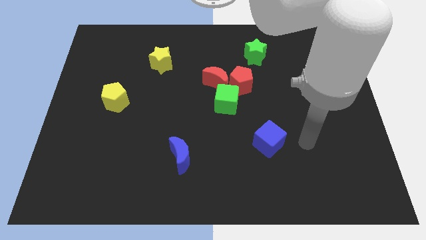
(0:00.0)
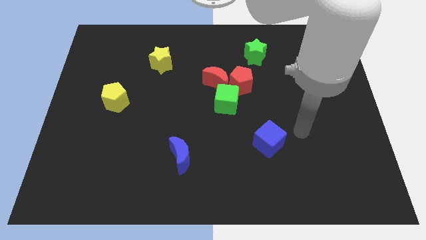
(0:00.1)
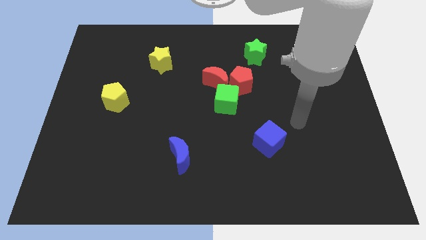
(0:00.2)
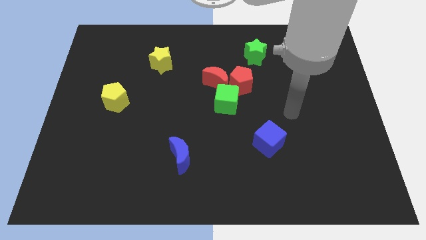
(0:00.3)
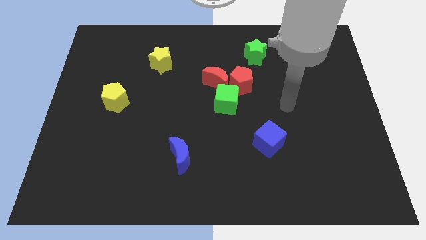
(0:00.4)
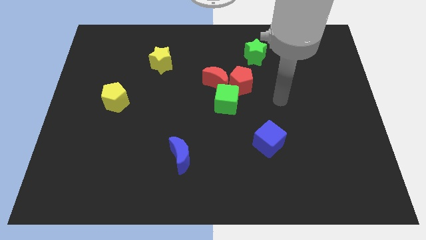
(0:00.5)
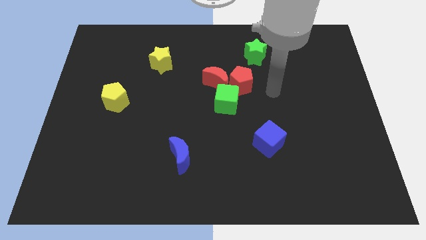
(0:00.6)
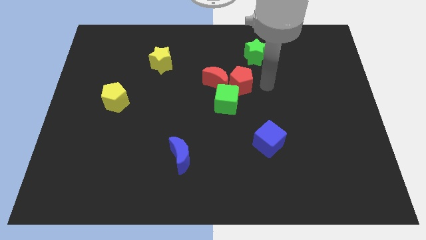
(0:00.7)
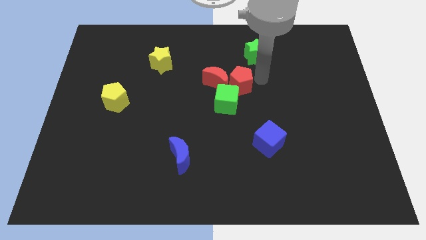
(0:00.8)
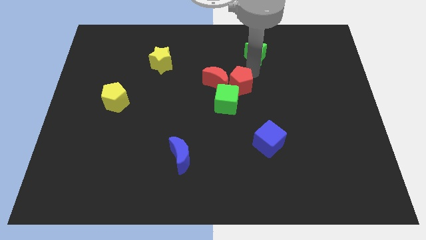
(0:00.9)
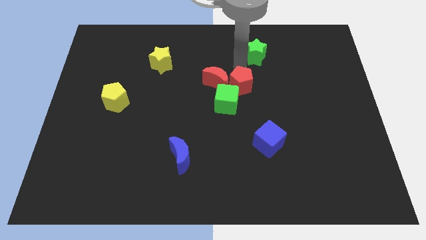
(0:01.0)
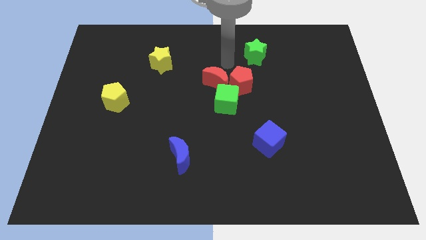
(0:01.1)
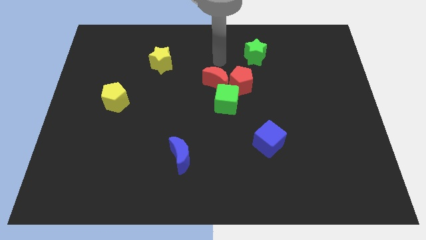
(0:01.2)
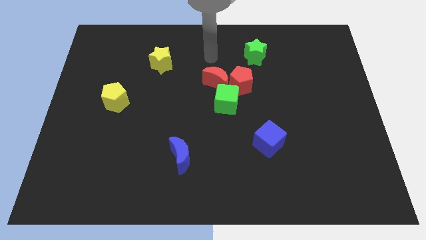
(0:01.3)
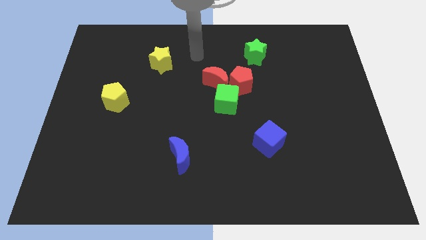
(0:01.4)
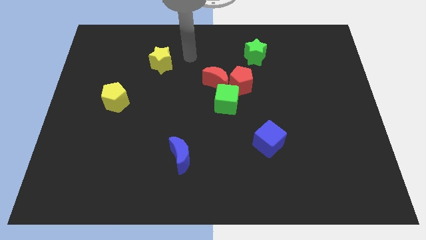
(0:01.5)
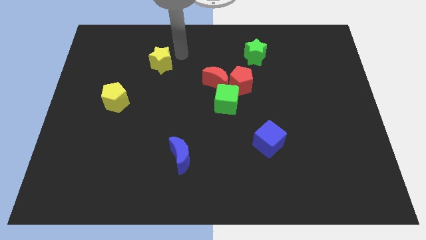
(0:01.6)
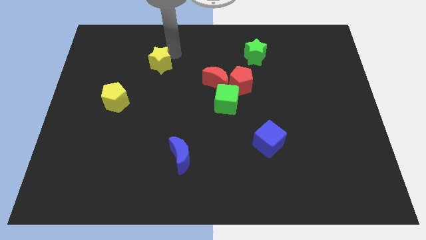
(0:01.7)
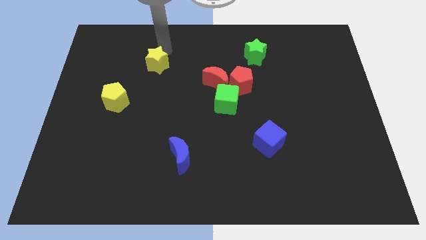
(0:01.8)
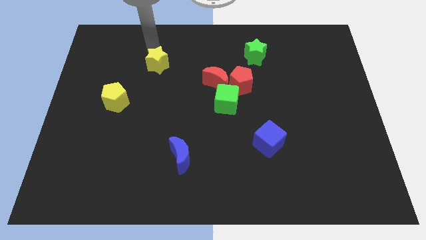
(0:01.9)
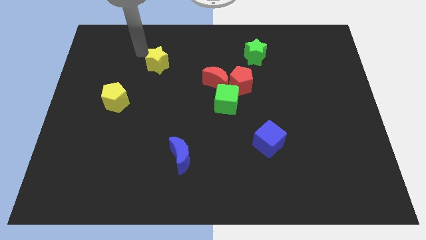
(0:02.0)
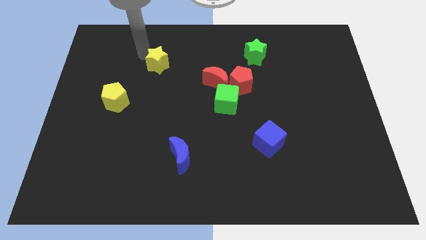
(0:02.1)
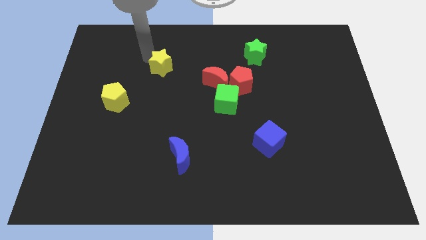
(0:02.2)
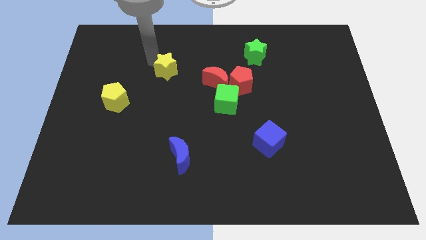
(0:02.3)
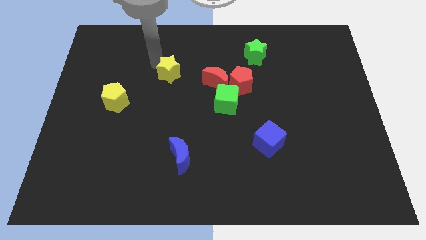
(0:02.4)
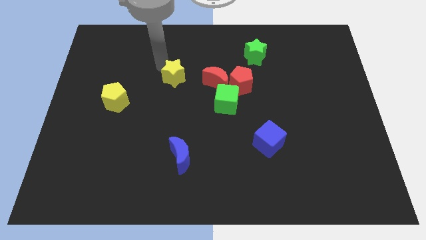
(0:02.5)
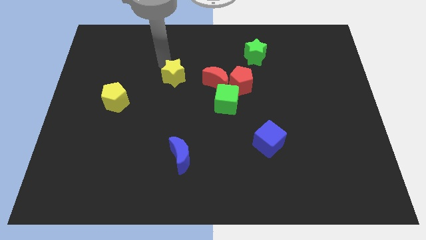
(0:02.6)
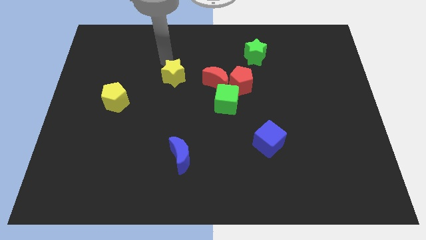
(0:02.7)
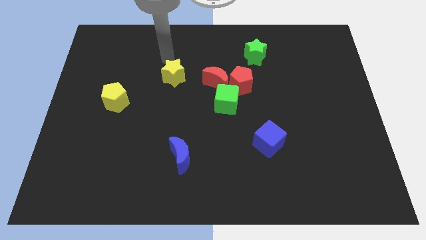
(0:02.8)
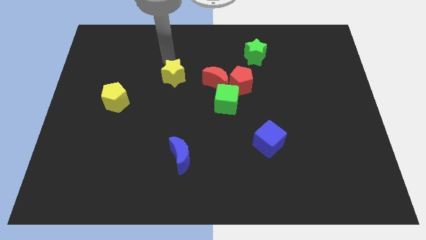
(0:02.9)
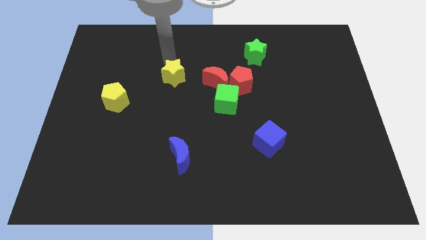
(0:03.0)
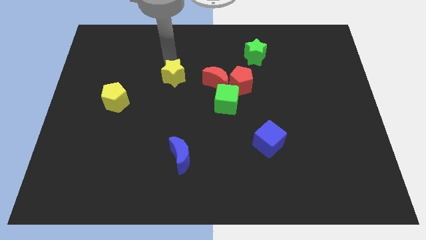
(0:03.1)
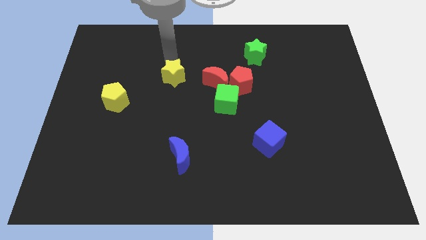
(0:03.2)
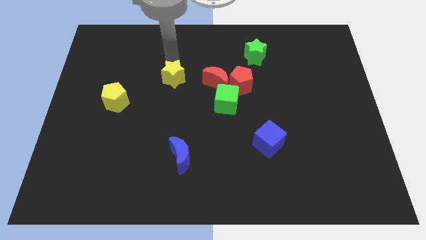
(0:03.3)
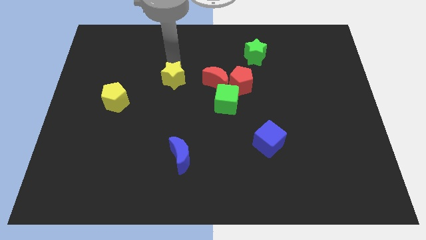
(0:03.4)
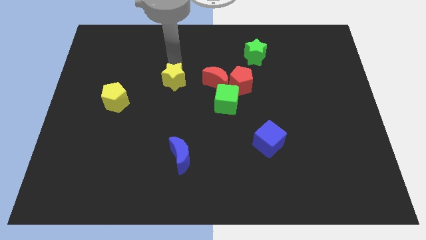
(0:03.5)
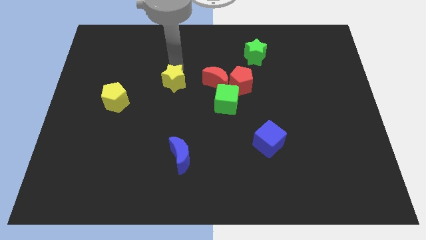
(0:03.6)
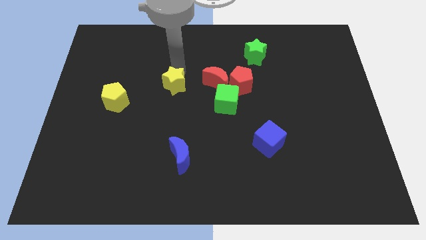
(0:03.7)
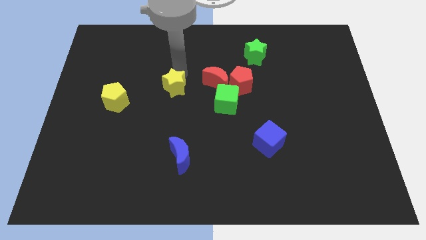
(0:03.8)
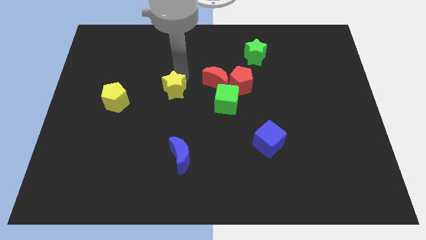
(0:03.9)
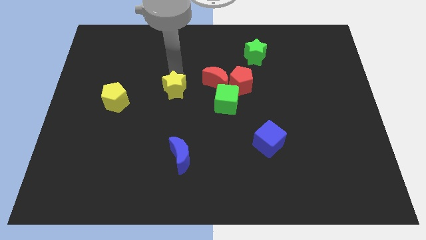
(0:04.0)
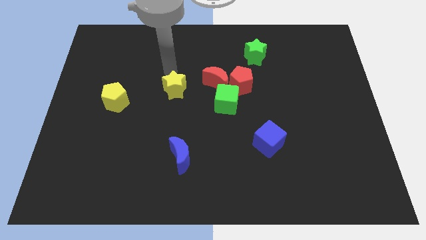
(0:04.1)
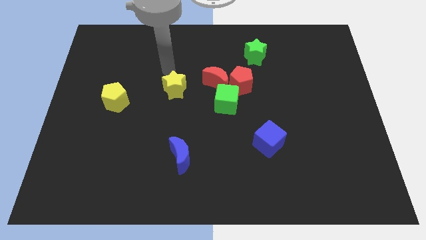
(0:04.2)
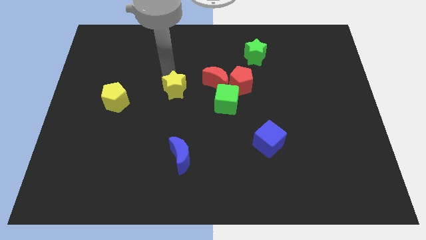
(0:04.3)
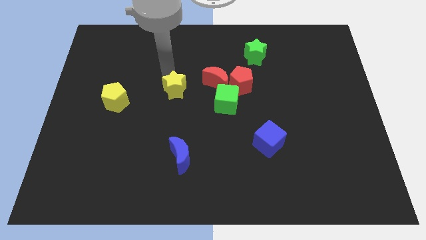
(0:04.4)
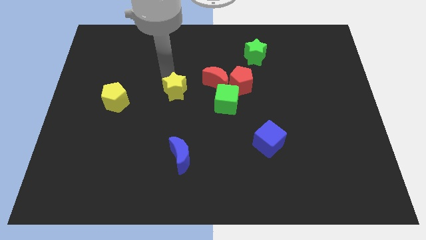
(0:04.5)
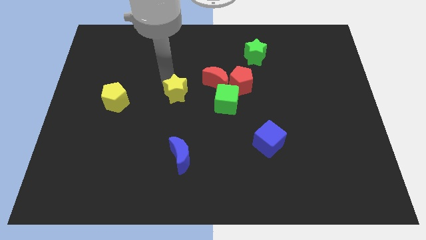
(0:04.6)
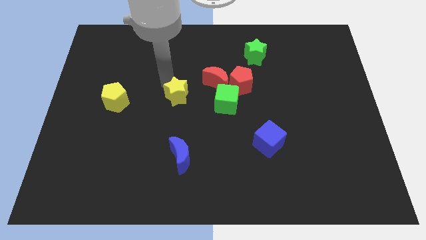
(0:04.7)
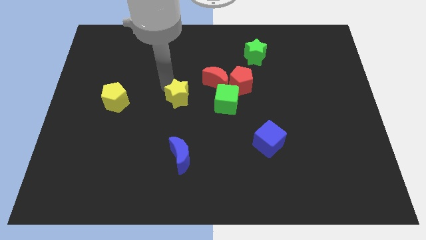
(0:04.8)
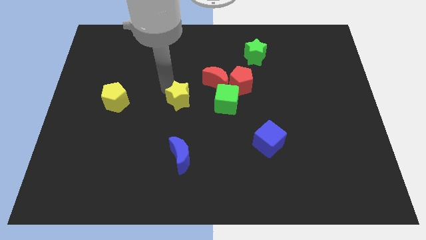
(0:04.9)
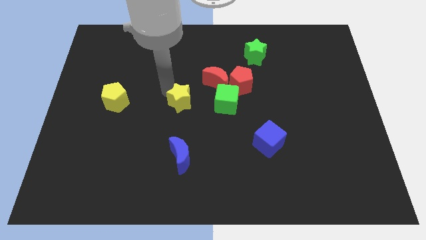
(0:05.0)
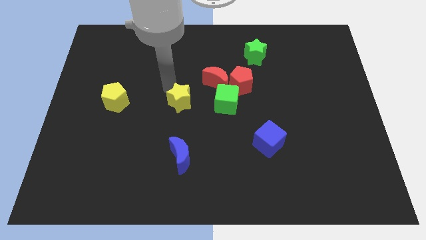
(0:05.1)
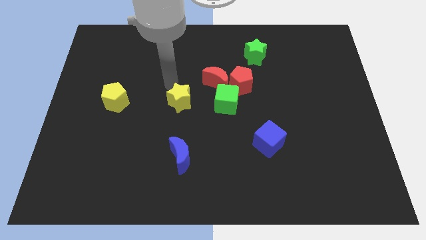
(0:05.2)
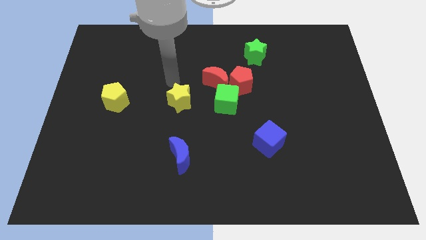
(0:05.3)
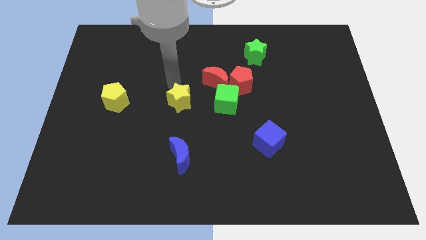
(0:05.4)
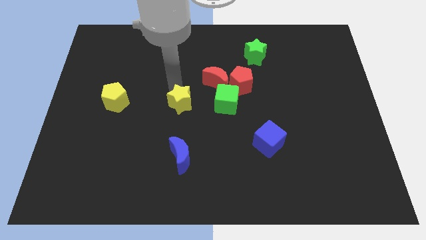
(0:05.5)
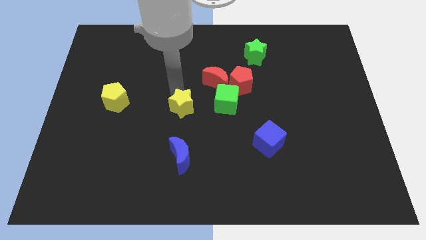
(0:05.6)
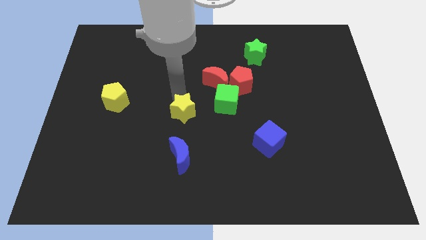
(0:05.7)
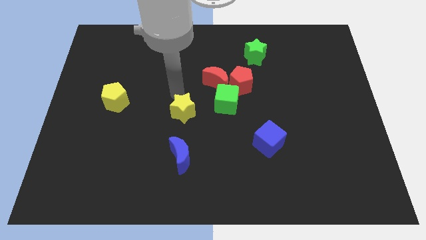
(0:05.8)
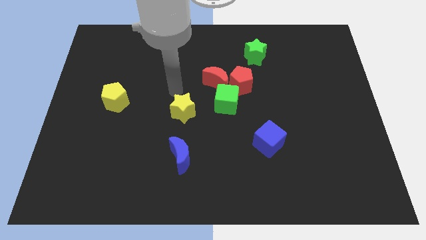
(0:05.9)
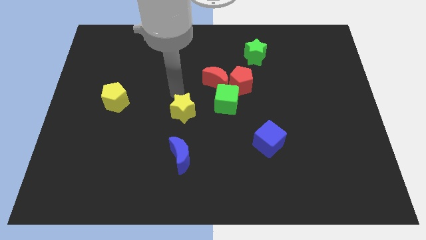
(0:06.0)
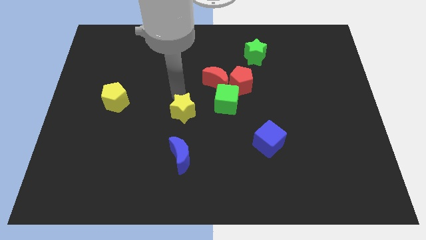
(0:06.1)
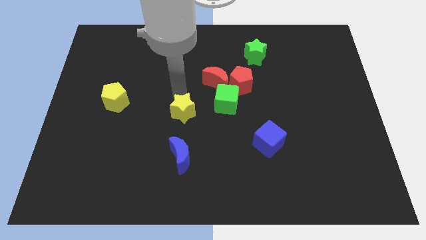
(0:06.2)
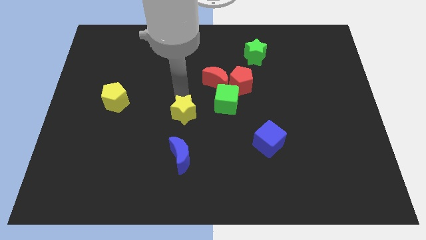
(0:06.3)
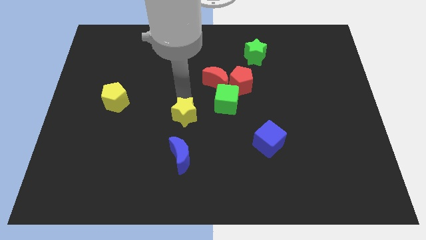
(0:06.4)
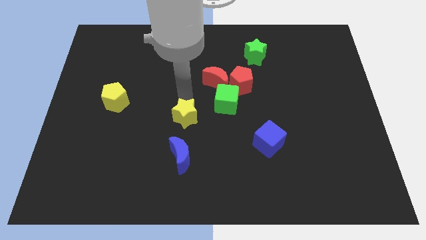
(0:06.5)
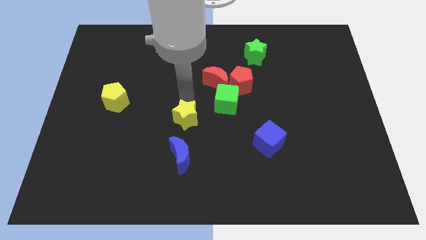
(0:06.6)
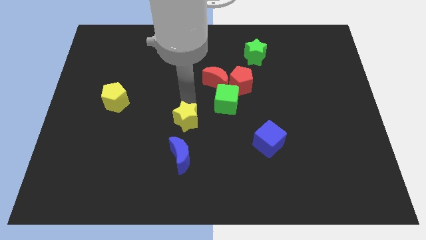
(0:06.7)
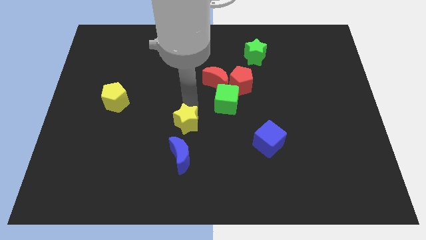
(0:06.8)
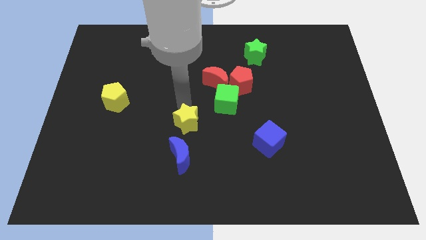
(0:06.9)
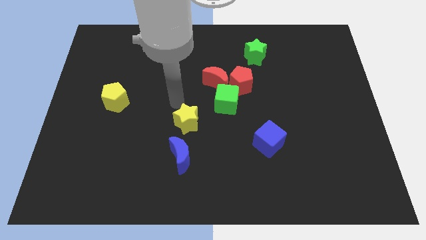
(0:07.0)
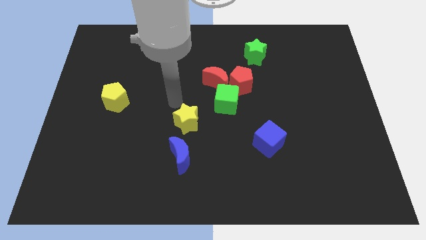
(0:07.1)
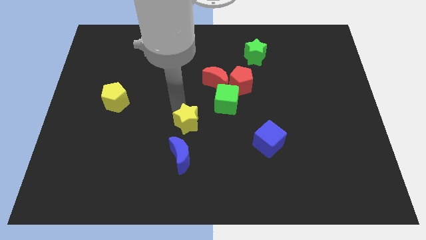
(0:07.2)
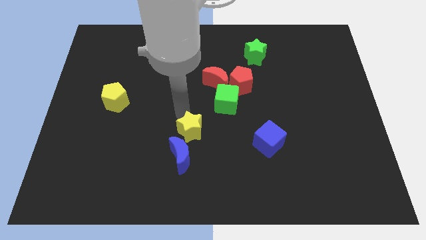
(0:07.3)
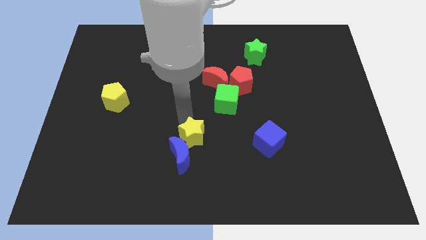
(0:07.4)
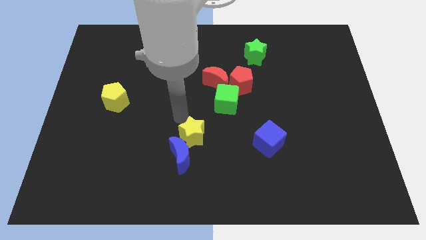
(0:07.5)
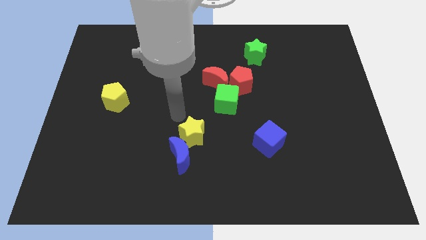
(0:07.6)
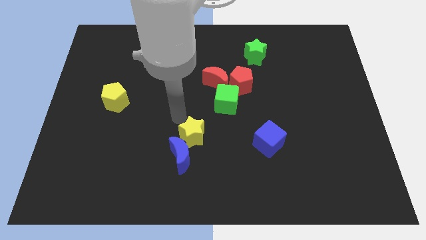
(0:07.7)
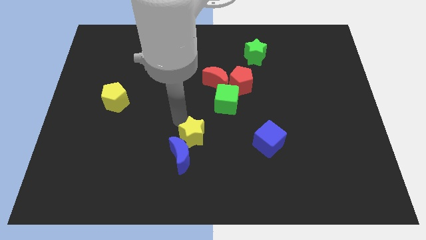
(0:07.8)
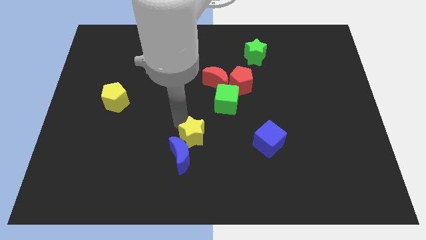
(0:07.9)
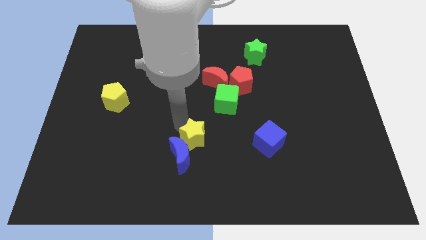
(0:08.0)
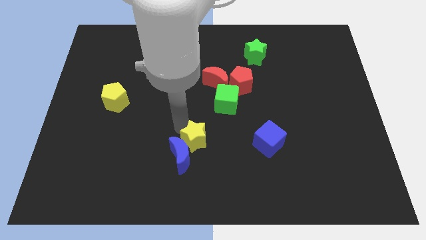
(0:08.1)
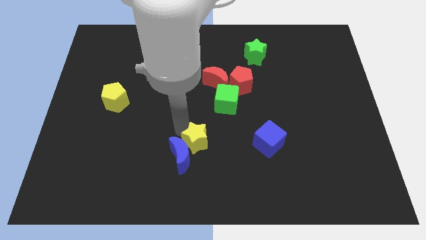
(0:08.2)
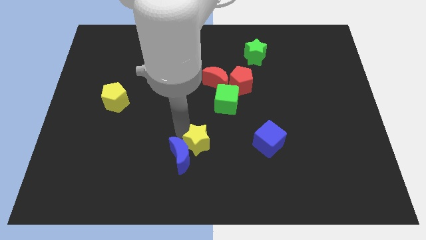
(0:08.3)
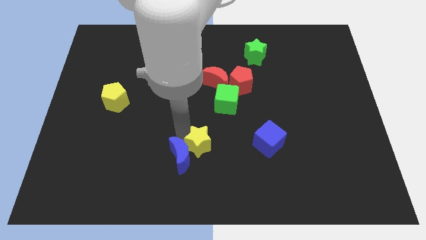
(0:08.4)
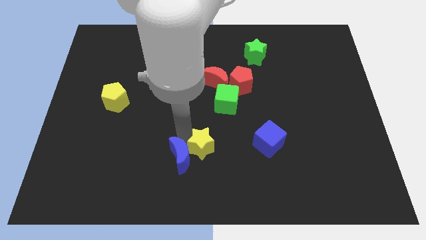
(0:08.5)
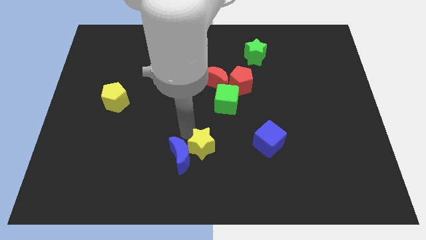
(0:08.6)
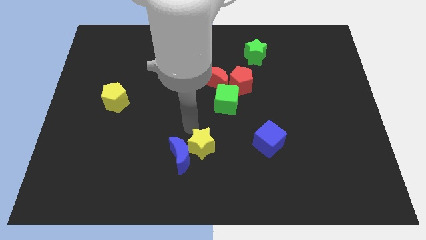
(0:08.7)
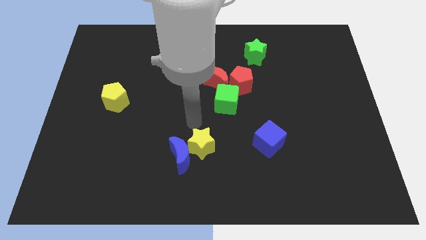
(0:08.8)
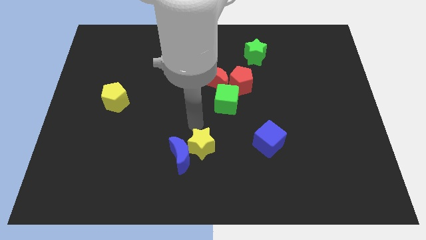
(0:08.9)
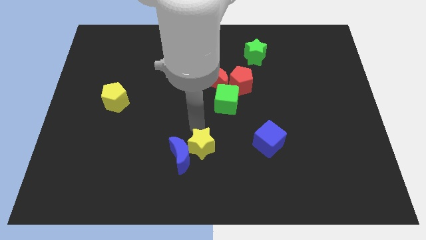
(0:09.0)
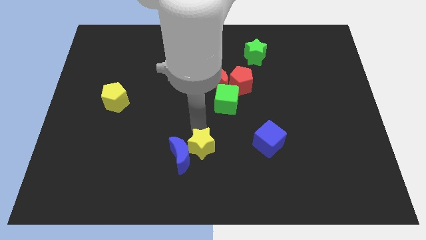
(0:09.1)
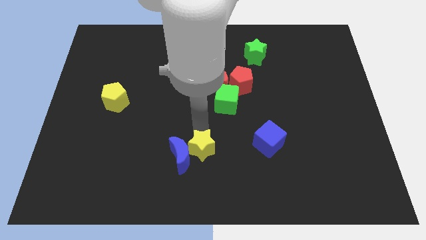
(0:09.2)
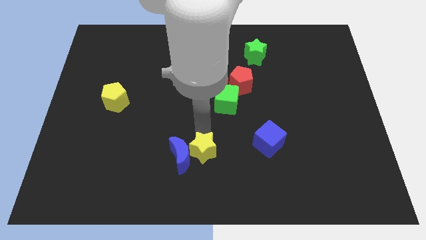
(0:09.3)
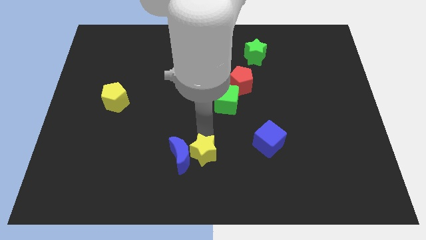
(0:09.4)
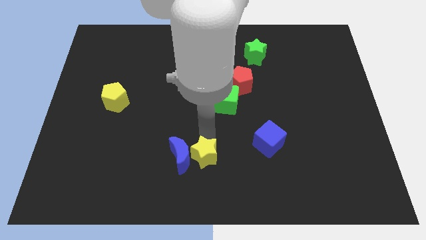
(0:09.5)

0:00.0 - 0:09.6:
slide the yellow star to the bottom
